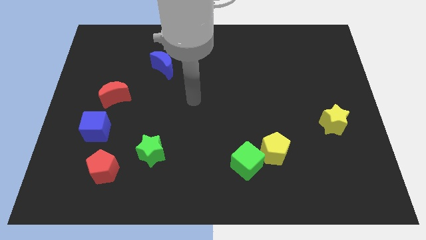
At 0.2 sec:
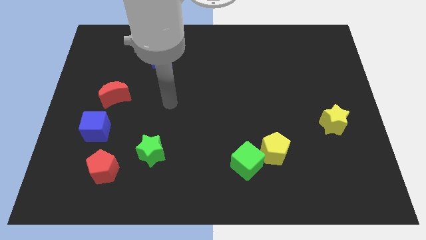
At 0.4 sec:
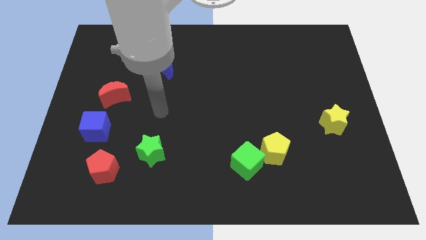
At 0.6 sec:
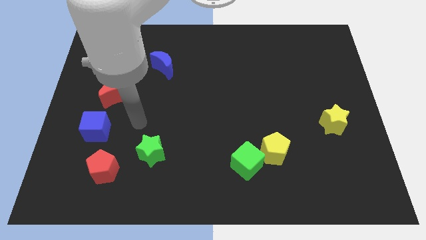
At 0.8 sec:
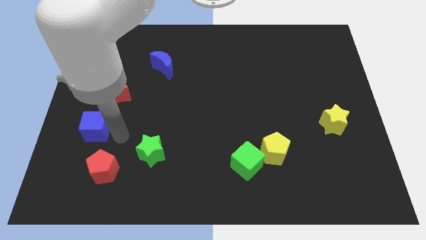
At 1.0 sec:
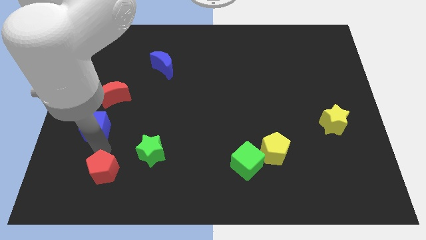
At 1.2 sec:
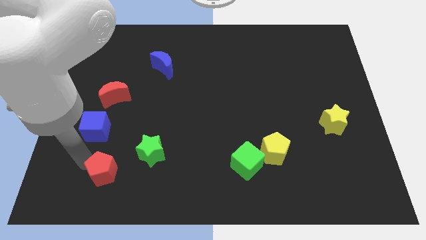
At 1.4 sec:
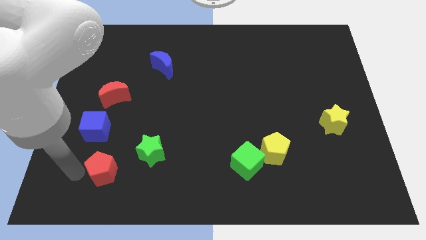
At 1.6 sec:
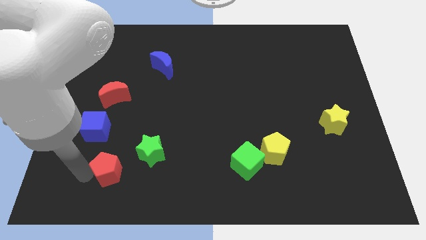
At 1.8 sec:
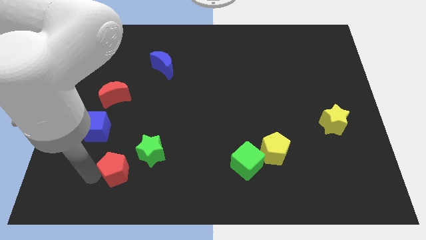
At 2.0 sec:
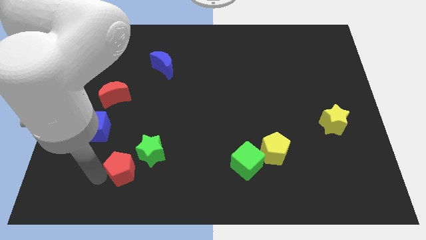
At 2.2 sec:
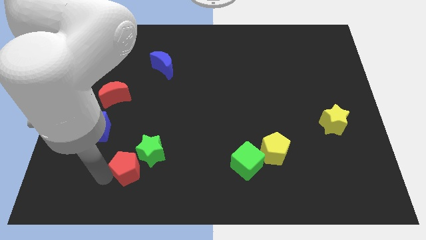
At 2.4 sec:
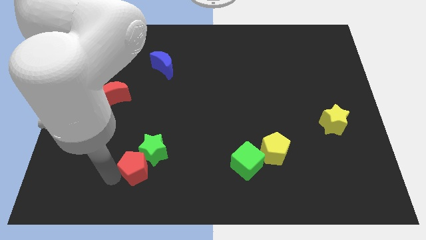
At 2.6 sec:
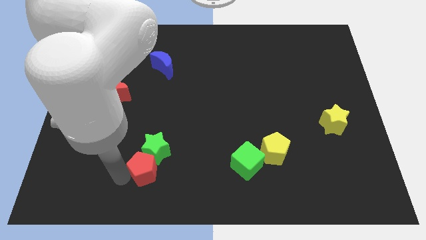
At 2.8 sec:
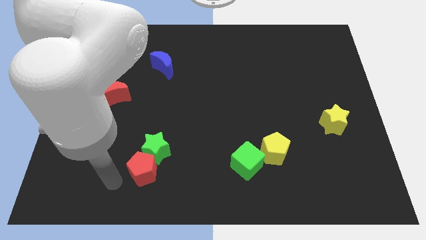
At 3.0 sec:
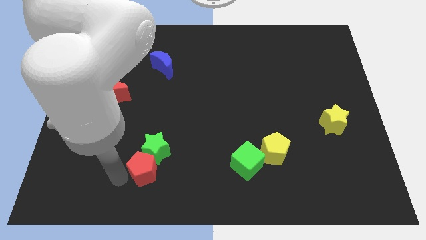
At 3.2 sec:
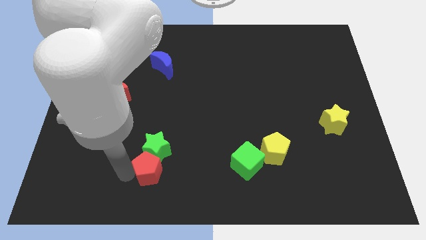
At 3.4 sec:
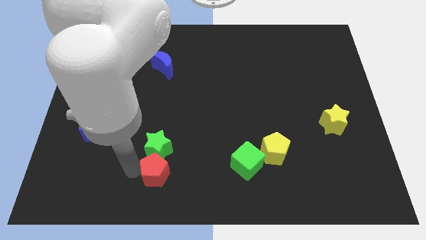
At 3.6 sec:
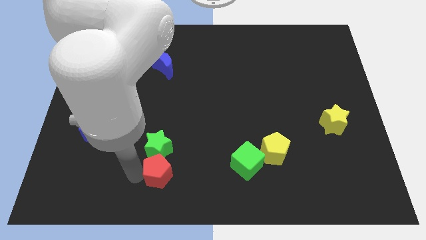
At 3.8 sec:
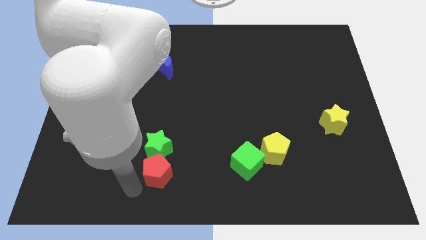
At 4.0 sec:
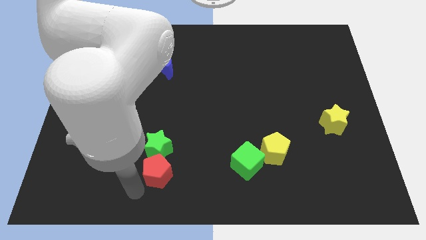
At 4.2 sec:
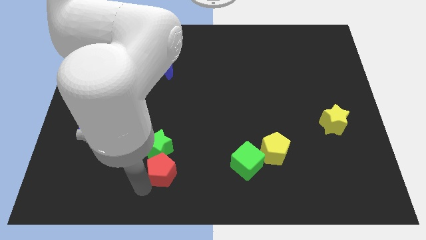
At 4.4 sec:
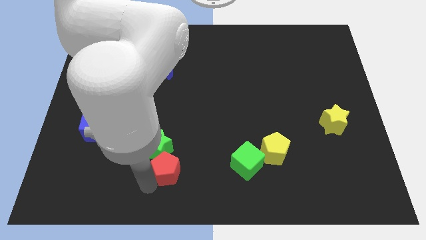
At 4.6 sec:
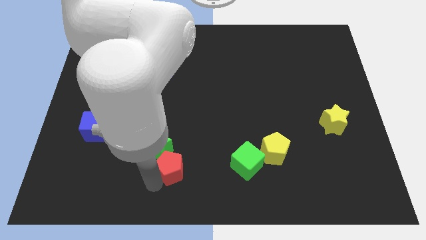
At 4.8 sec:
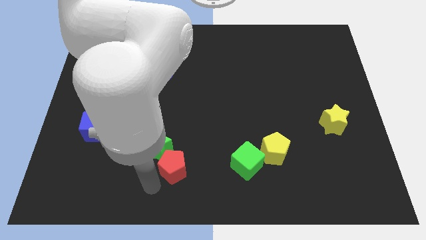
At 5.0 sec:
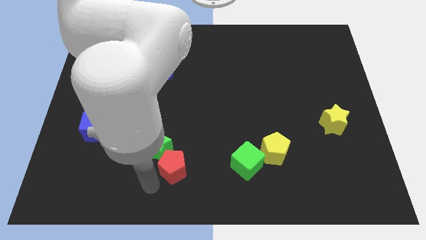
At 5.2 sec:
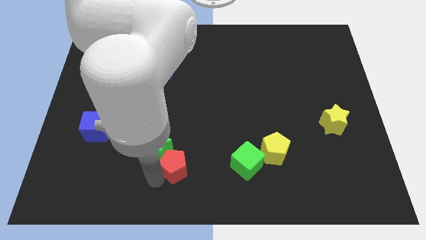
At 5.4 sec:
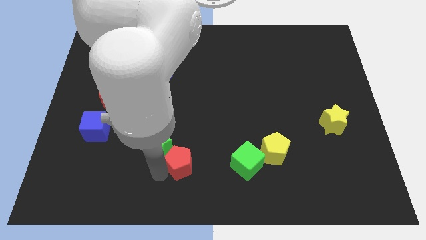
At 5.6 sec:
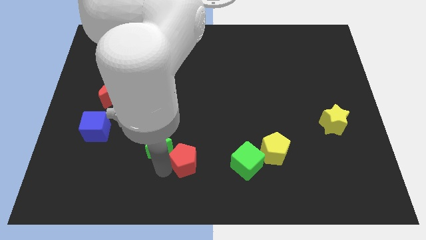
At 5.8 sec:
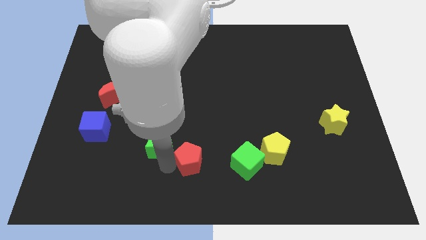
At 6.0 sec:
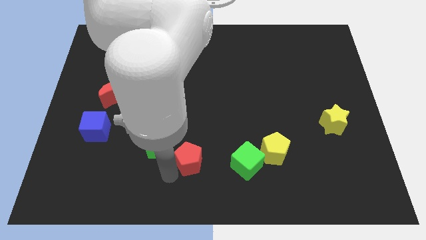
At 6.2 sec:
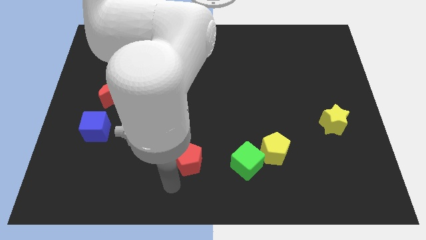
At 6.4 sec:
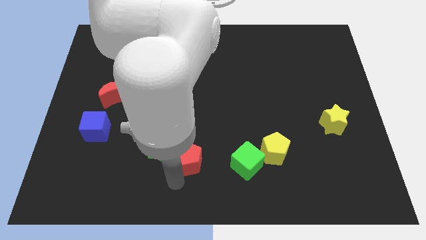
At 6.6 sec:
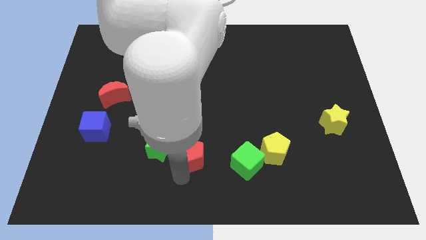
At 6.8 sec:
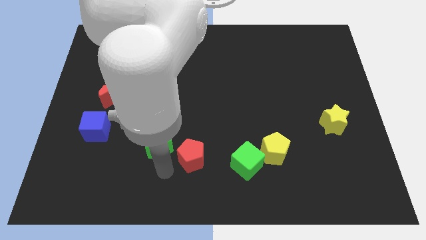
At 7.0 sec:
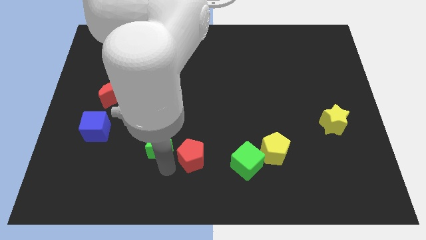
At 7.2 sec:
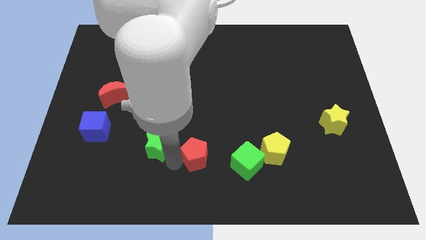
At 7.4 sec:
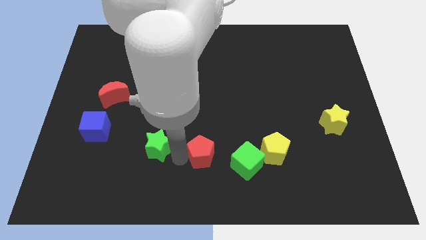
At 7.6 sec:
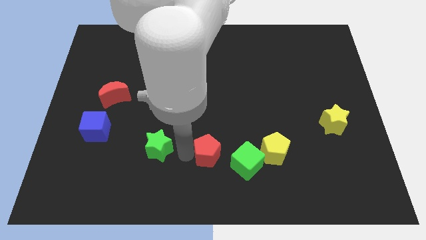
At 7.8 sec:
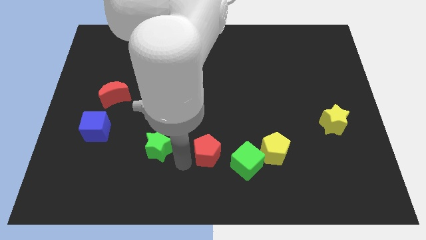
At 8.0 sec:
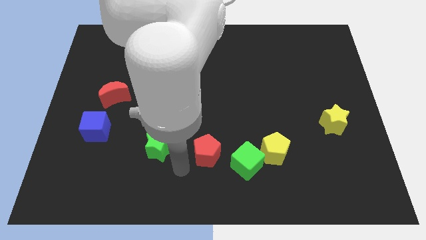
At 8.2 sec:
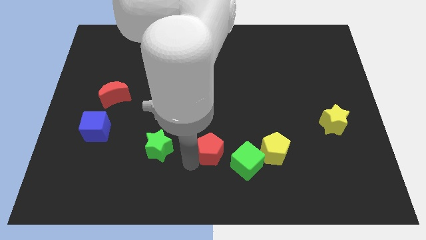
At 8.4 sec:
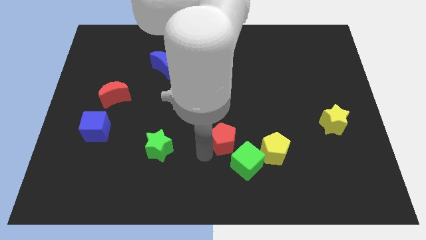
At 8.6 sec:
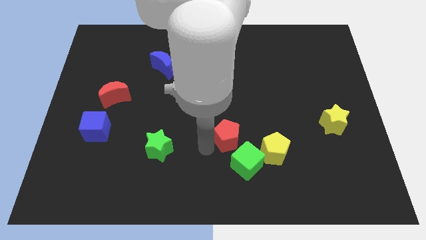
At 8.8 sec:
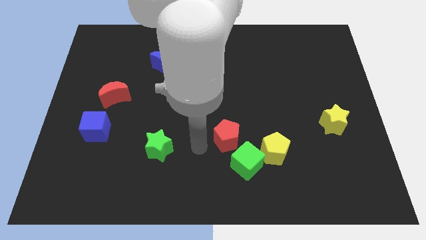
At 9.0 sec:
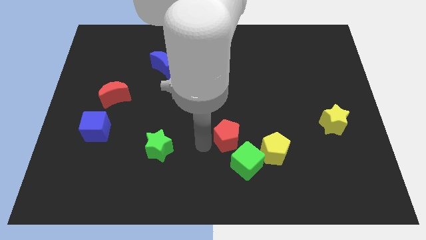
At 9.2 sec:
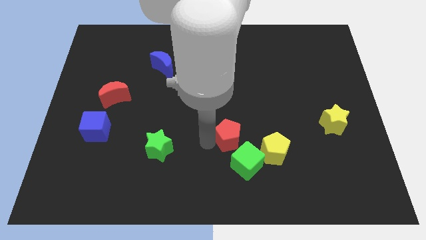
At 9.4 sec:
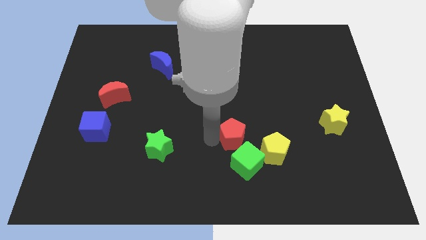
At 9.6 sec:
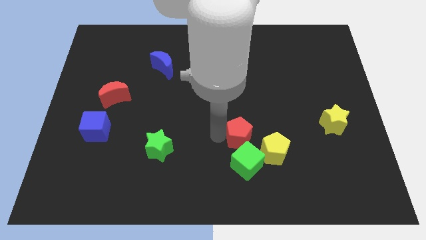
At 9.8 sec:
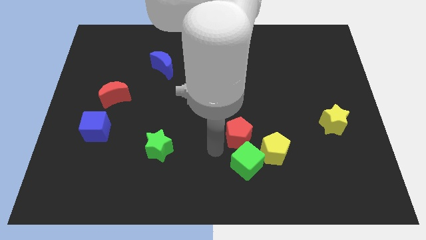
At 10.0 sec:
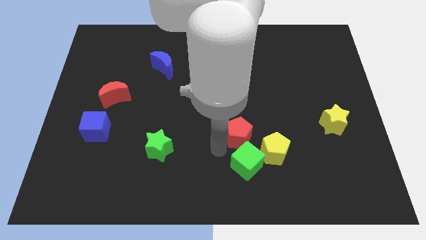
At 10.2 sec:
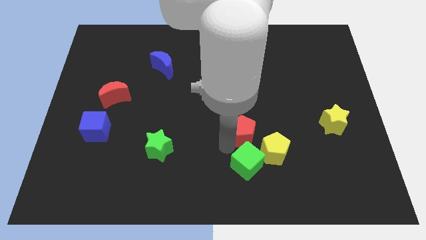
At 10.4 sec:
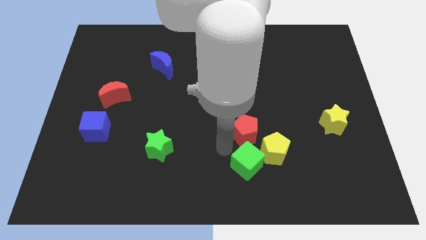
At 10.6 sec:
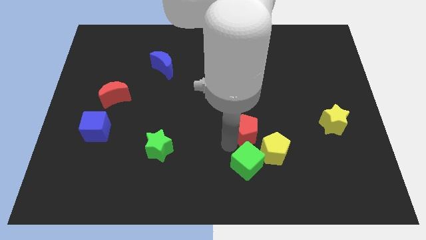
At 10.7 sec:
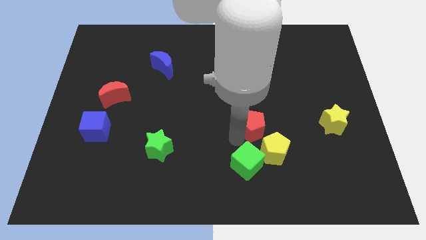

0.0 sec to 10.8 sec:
put the red pentagon to the top of the yellow pentagon

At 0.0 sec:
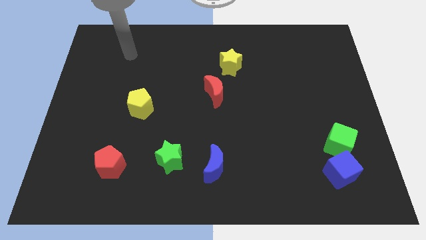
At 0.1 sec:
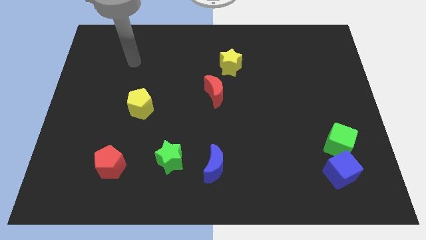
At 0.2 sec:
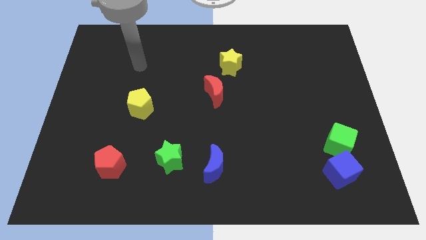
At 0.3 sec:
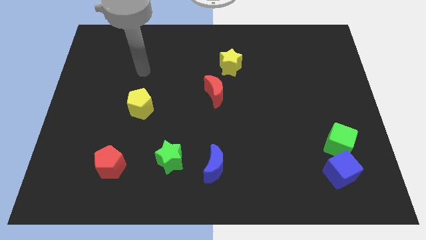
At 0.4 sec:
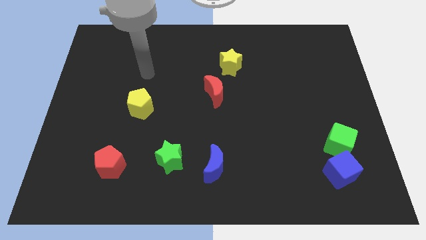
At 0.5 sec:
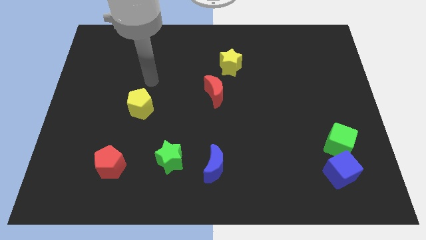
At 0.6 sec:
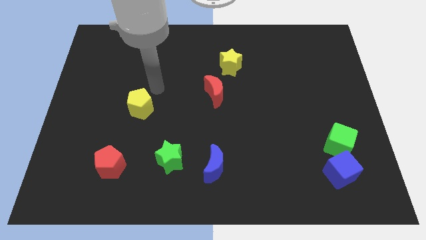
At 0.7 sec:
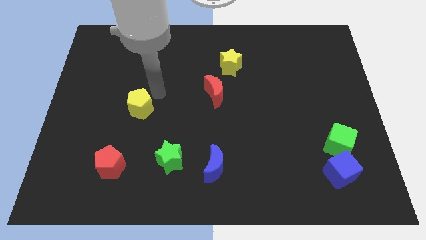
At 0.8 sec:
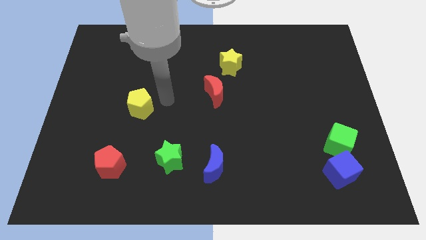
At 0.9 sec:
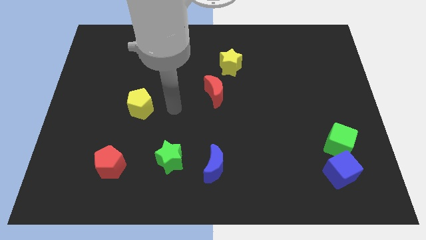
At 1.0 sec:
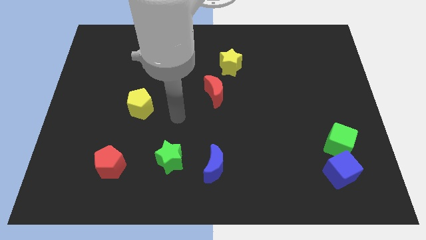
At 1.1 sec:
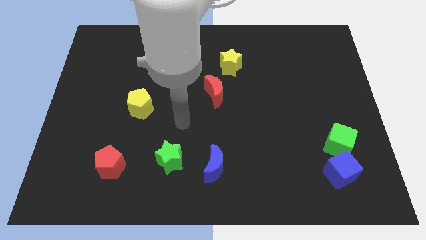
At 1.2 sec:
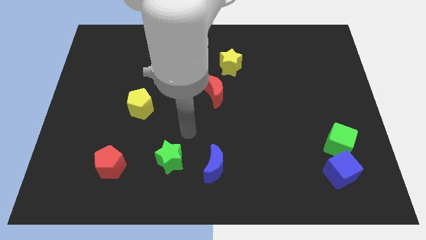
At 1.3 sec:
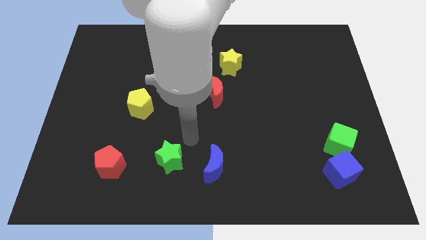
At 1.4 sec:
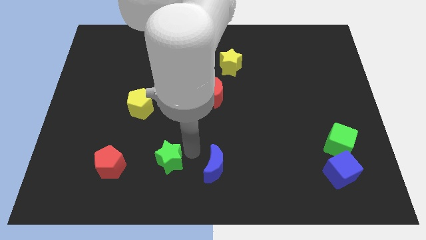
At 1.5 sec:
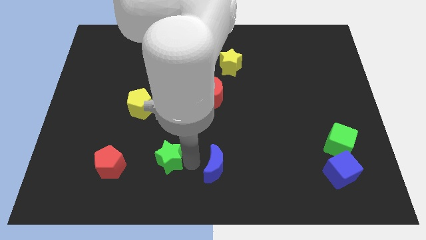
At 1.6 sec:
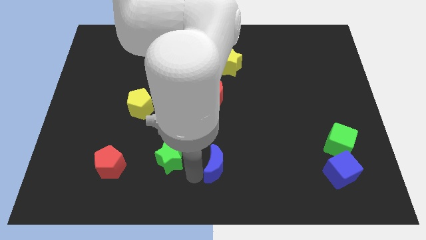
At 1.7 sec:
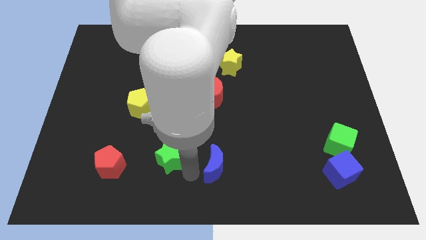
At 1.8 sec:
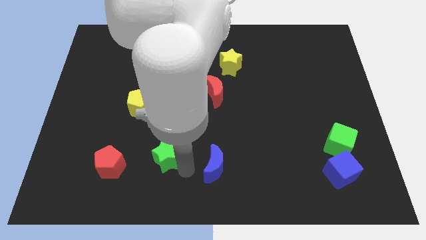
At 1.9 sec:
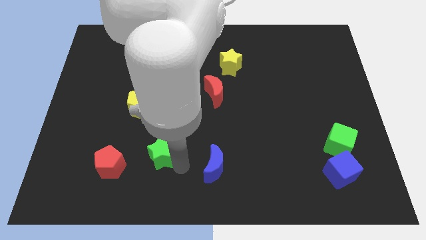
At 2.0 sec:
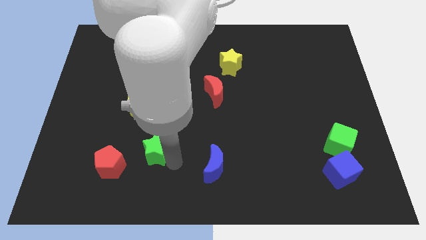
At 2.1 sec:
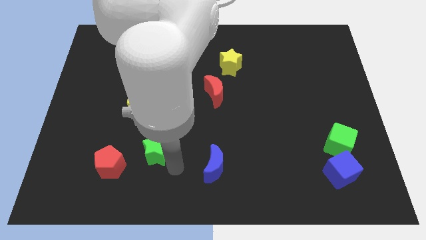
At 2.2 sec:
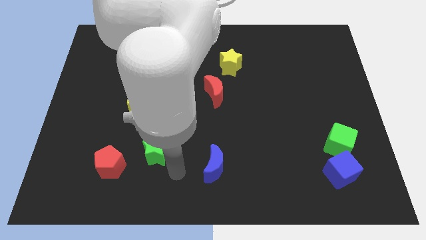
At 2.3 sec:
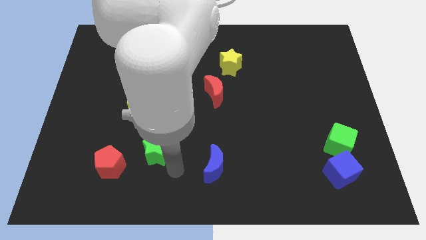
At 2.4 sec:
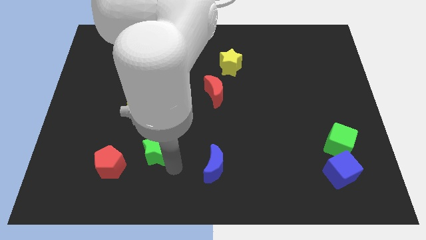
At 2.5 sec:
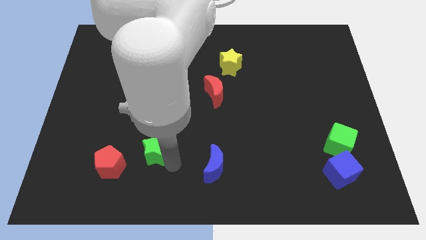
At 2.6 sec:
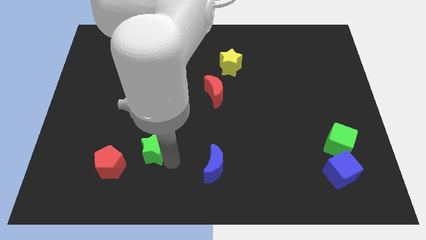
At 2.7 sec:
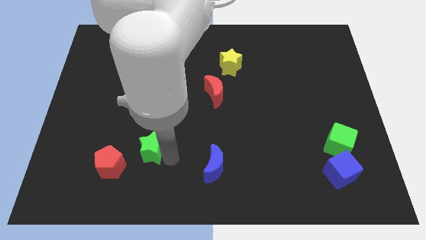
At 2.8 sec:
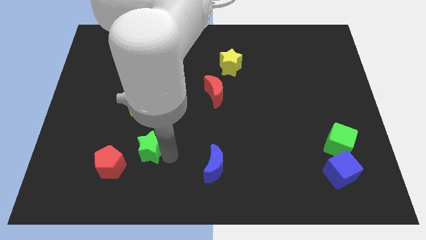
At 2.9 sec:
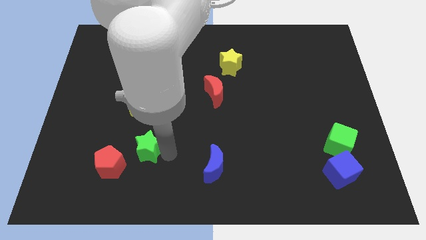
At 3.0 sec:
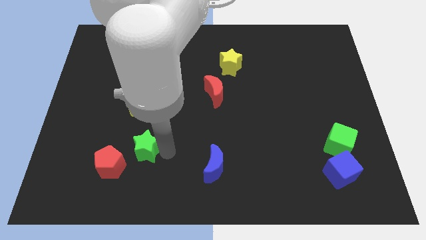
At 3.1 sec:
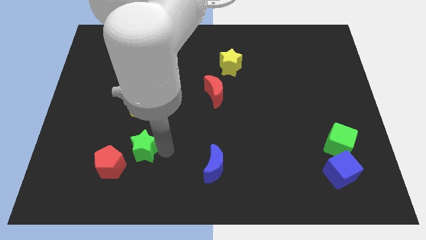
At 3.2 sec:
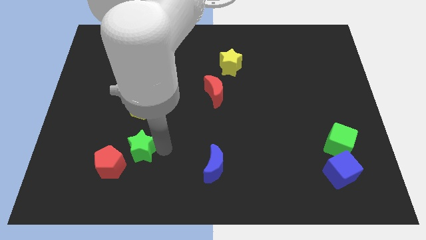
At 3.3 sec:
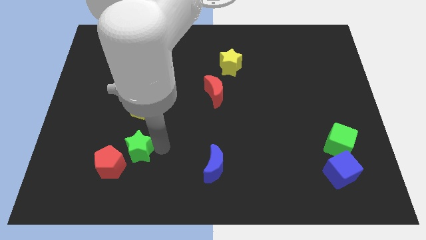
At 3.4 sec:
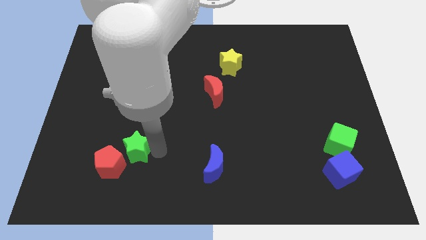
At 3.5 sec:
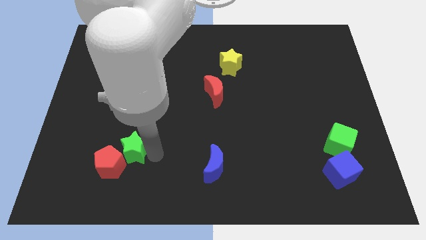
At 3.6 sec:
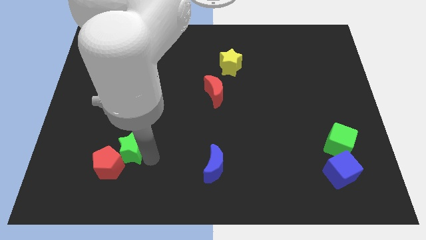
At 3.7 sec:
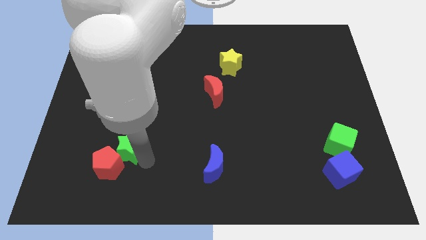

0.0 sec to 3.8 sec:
put the green star to the top side of the red pentagon
